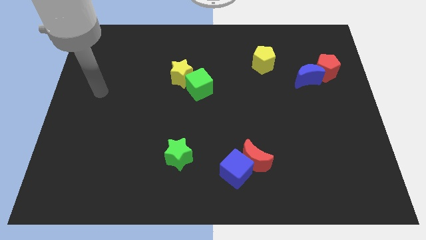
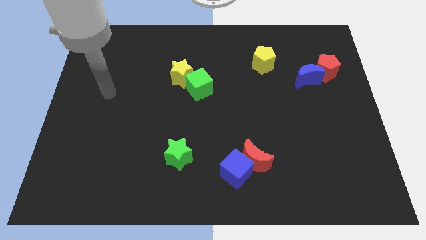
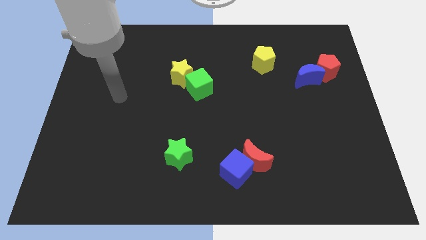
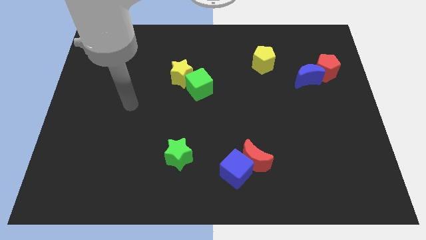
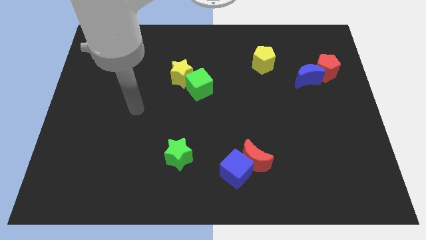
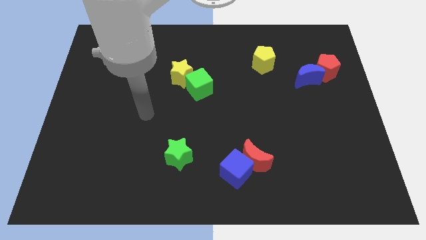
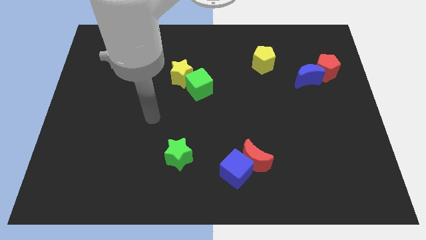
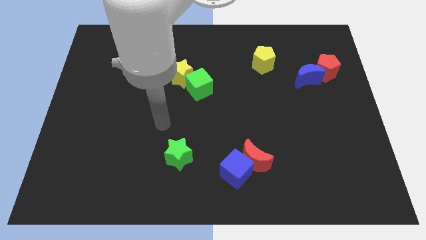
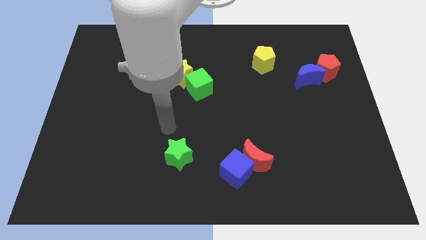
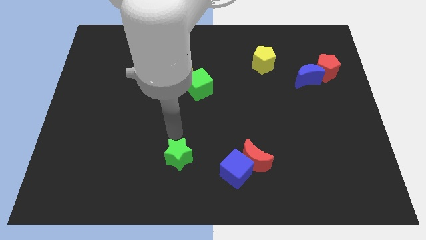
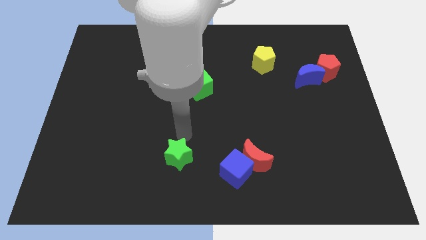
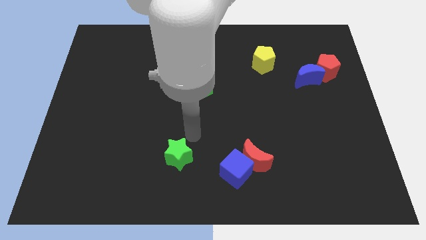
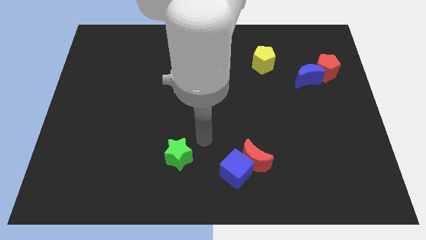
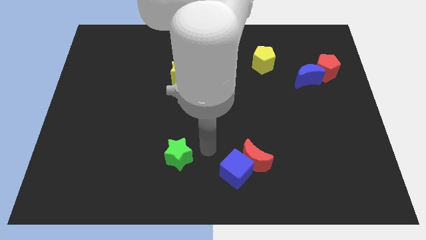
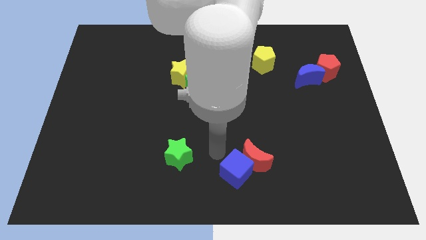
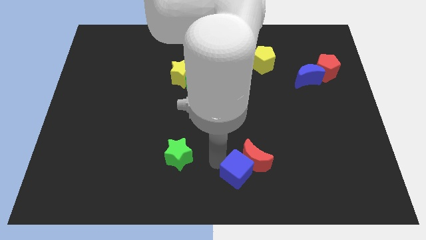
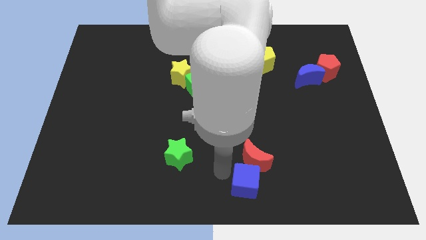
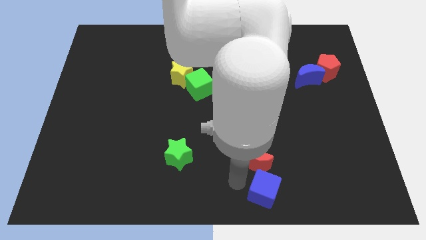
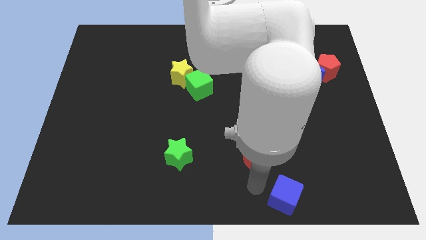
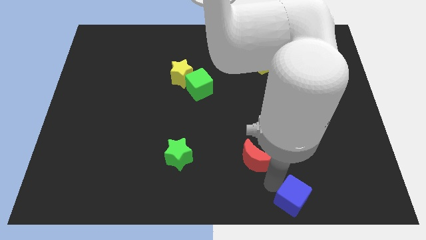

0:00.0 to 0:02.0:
pull the red moon apart from the blue cube

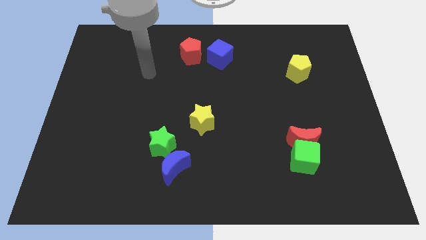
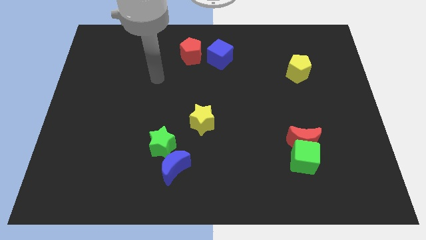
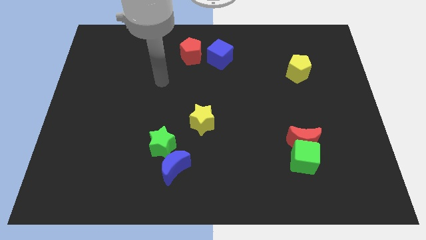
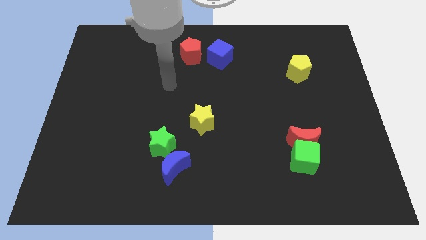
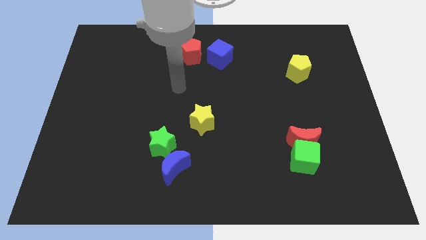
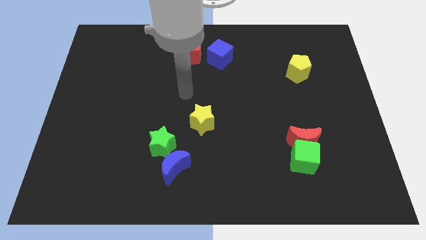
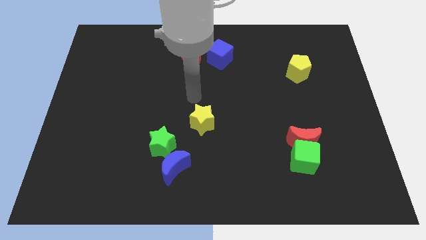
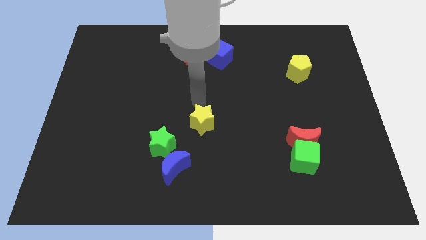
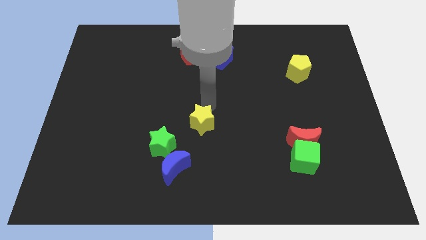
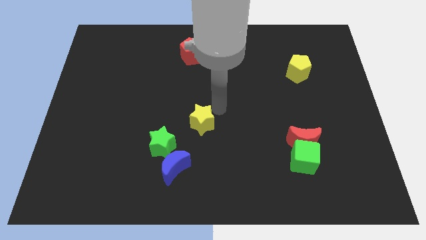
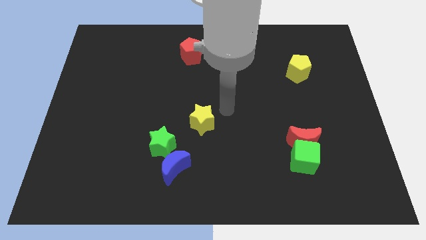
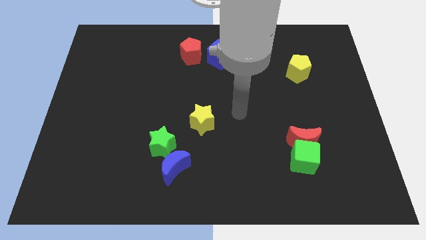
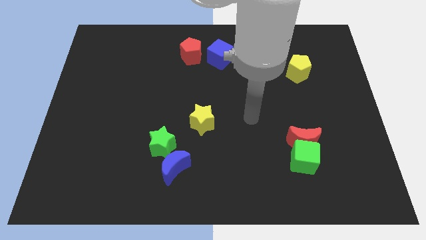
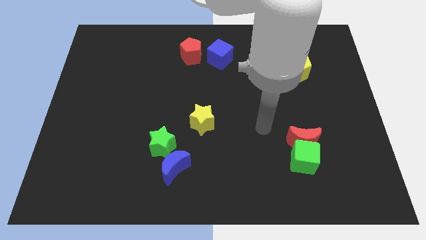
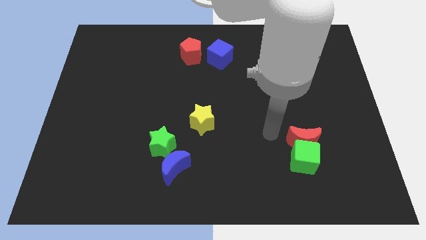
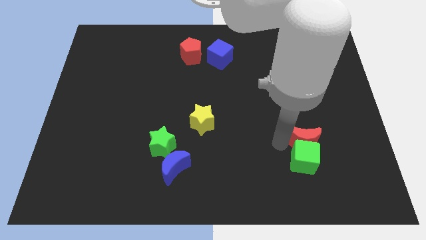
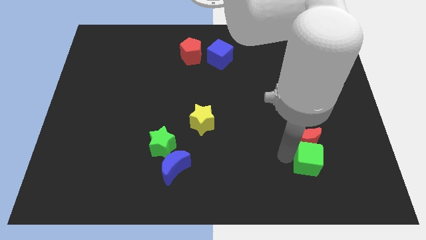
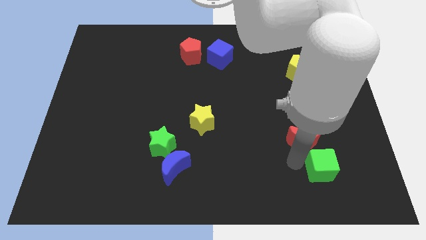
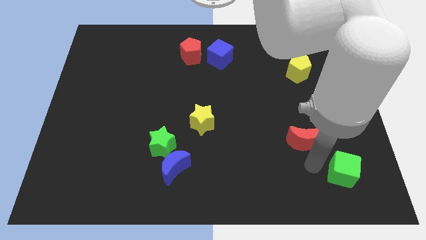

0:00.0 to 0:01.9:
pull the red moon apart from the green cube

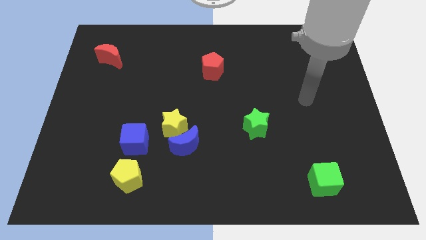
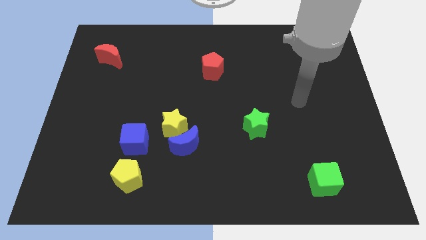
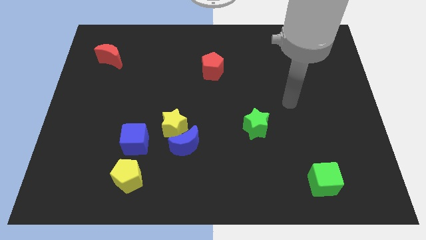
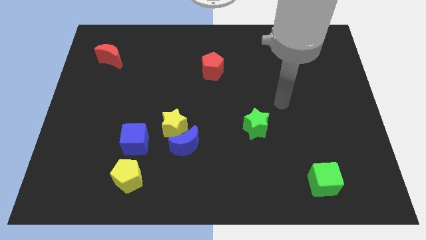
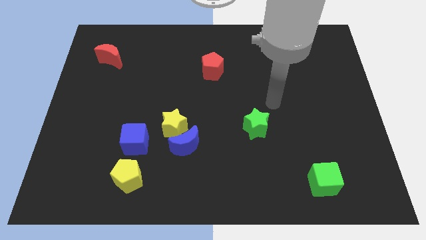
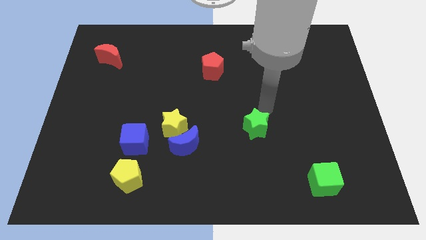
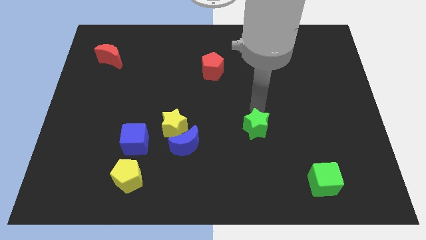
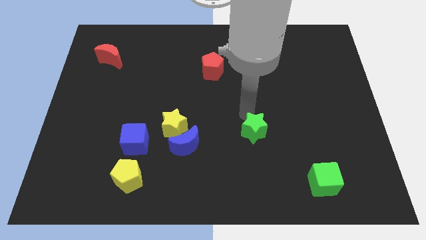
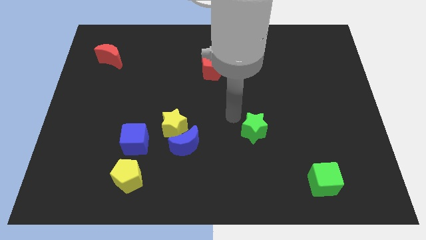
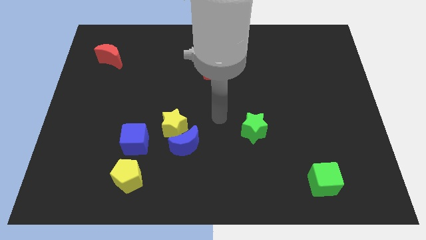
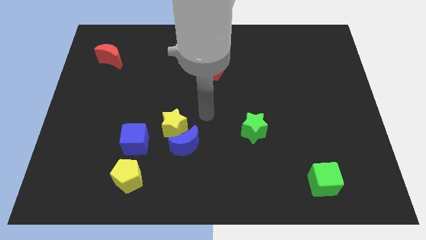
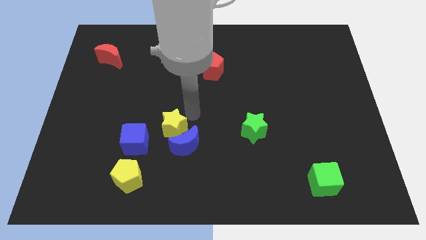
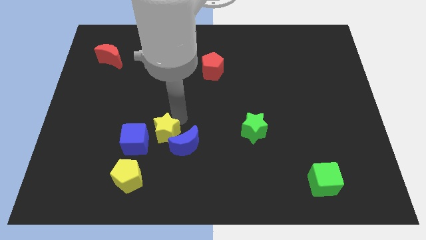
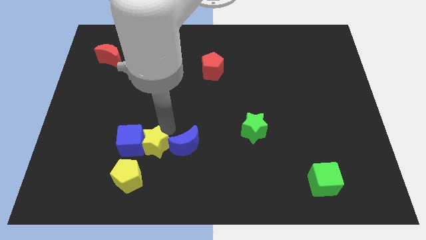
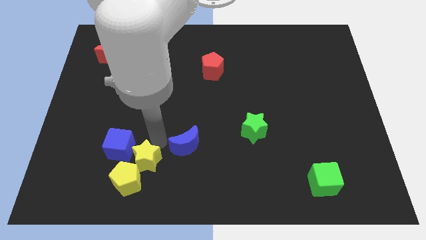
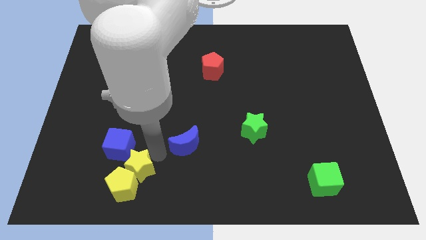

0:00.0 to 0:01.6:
separate the blue moon from the yellow star

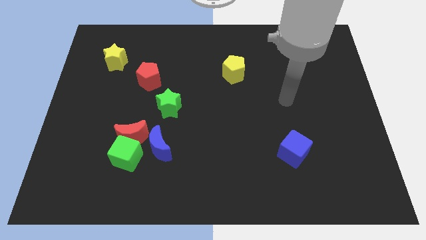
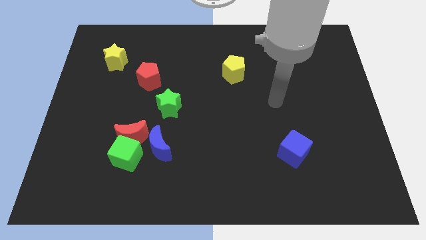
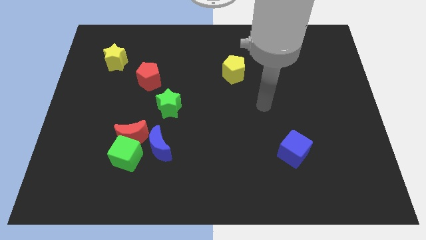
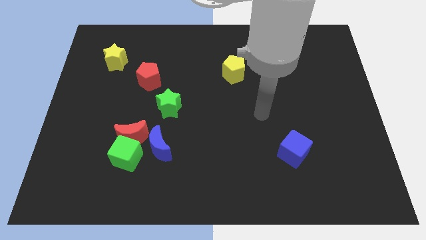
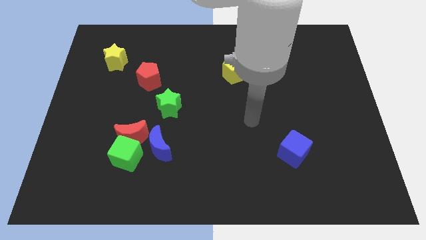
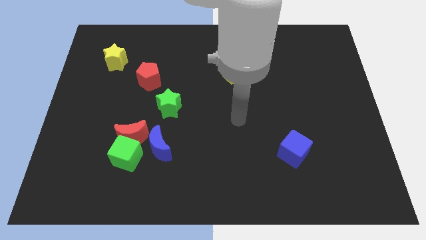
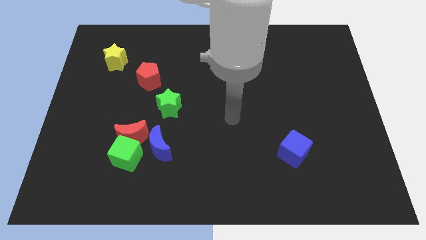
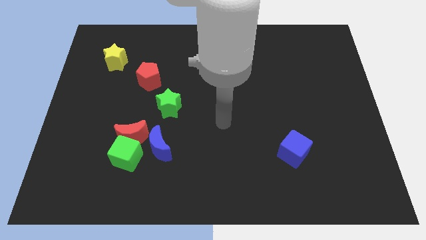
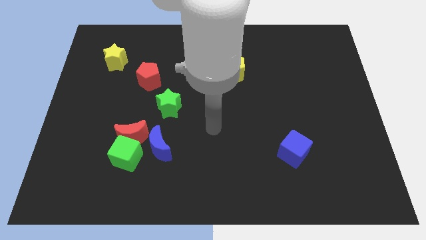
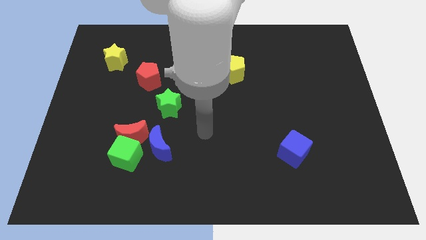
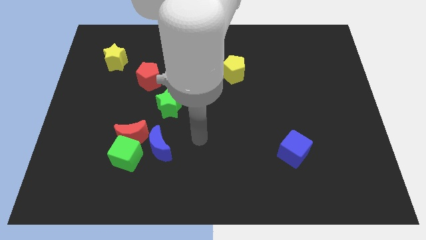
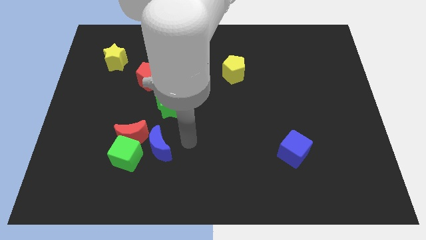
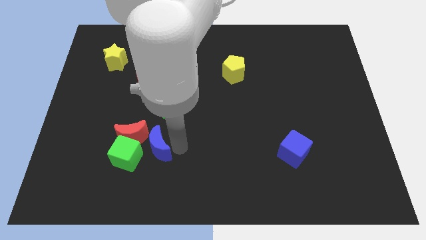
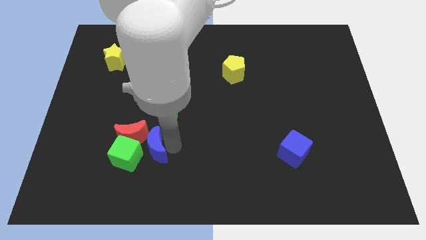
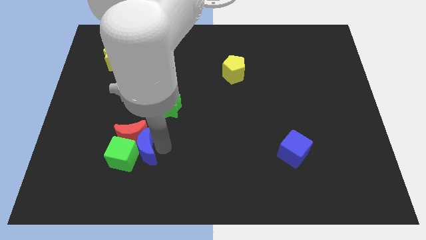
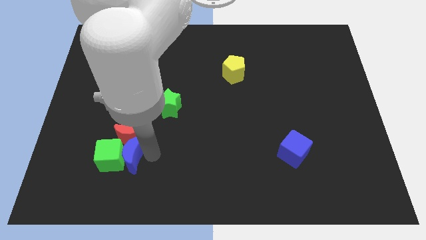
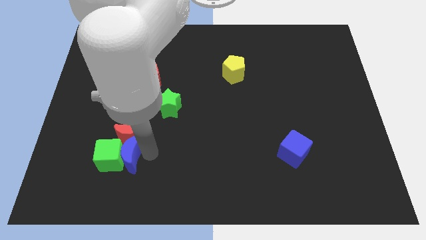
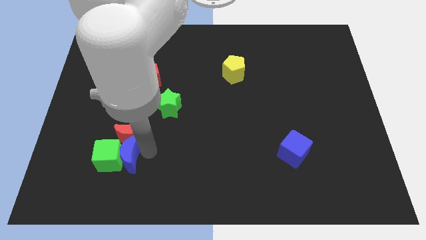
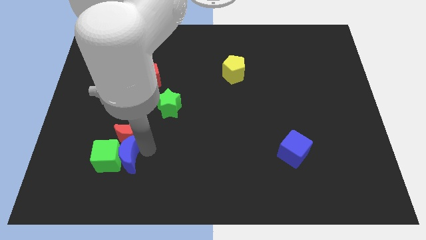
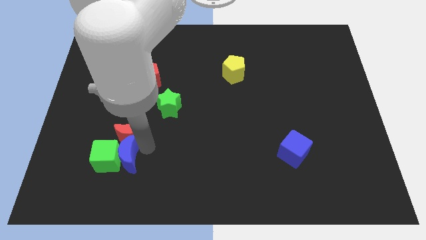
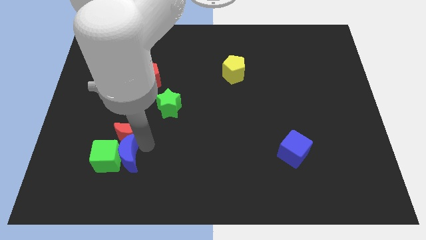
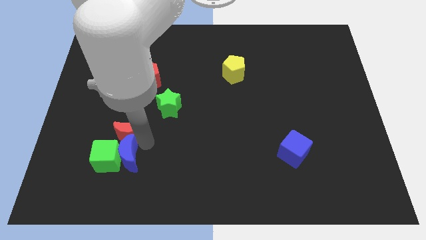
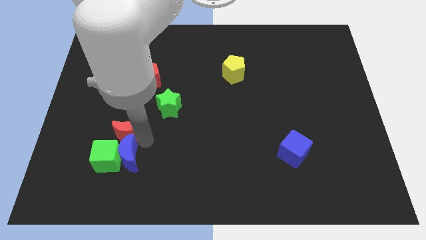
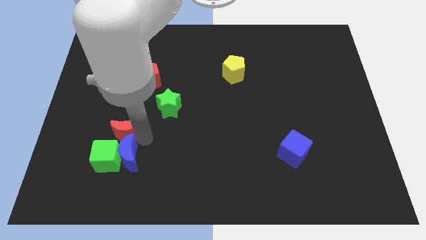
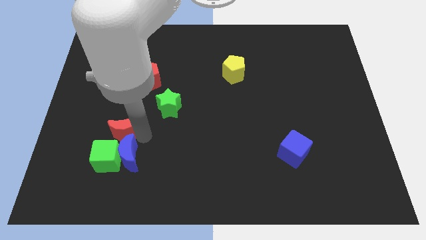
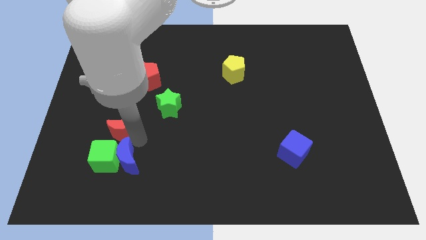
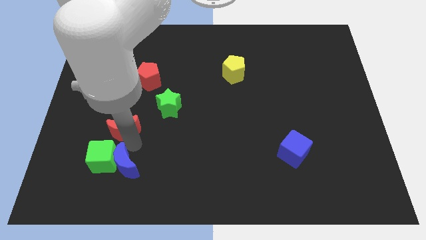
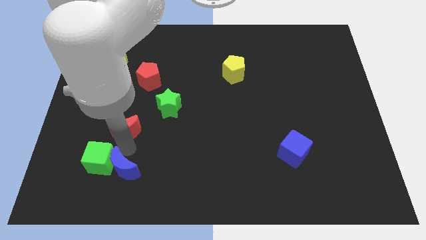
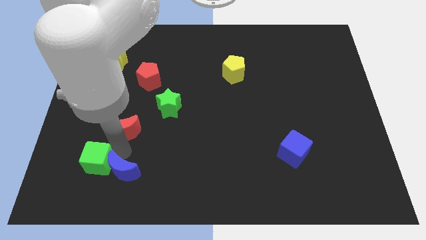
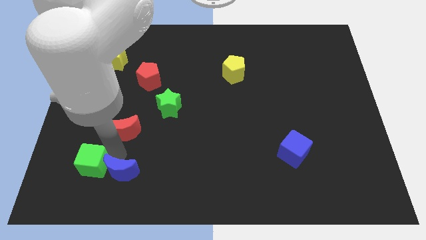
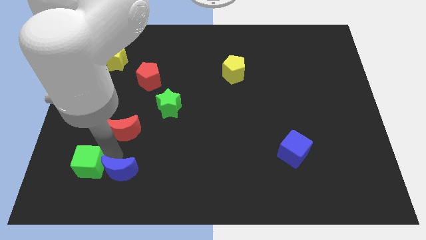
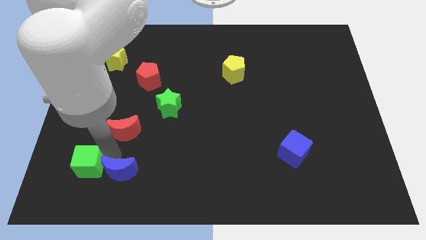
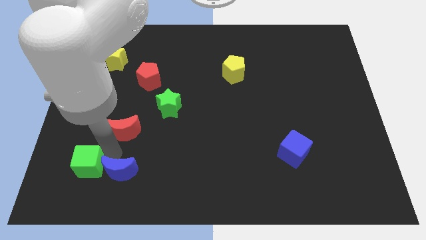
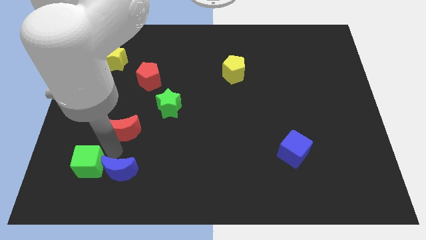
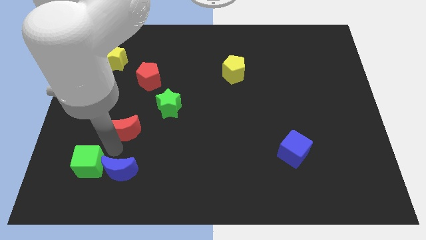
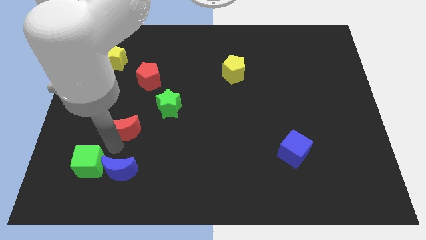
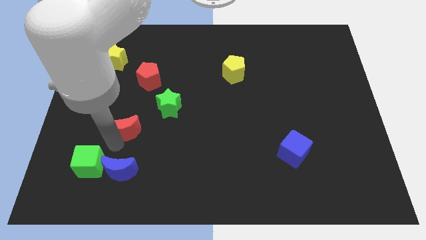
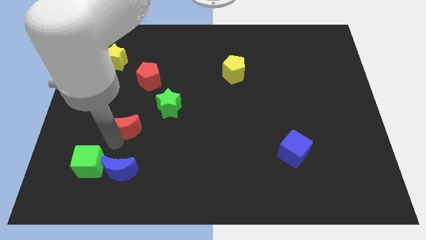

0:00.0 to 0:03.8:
pull the red moon apart from the green cube and blue moon
